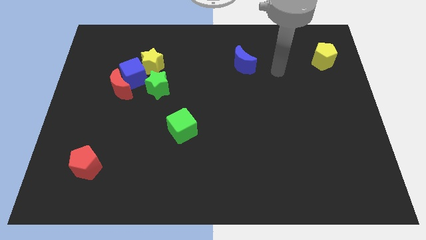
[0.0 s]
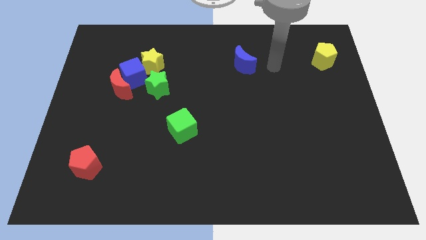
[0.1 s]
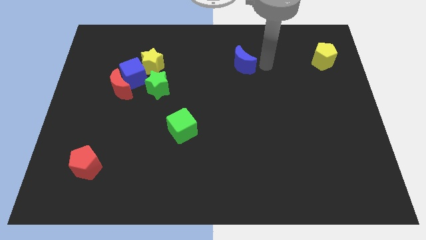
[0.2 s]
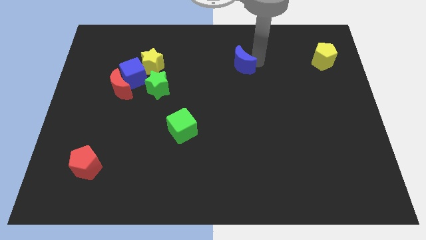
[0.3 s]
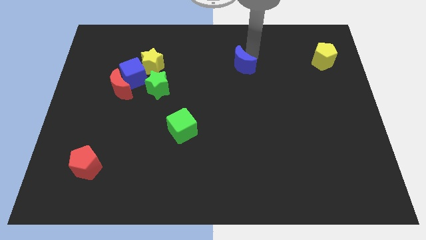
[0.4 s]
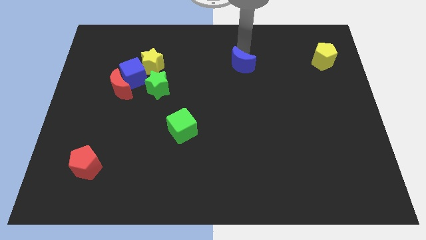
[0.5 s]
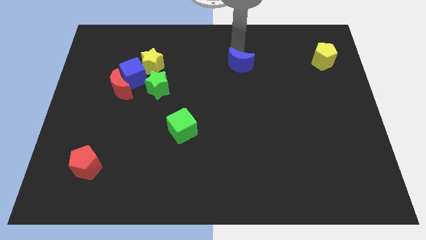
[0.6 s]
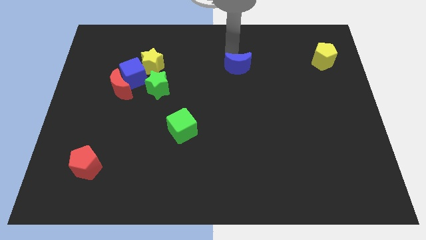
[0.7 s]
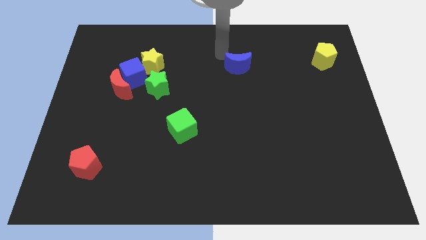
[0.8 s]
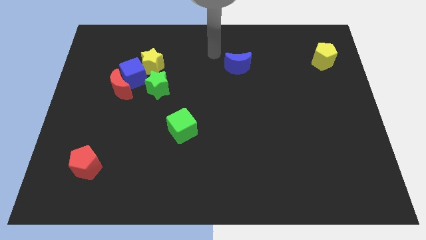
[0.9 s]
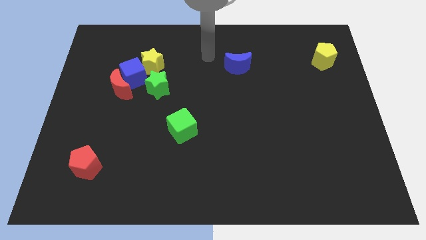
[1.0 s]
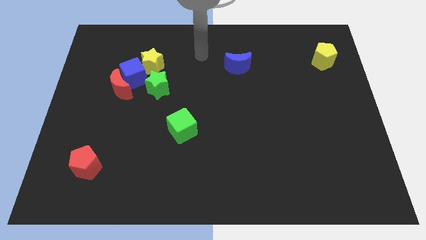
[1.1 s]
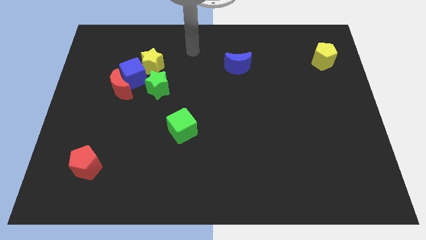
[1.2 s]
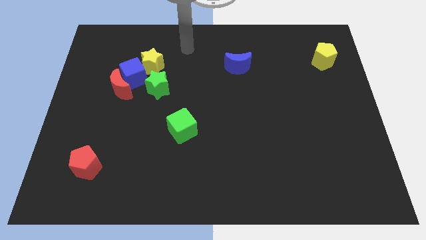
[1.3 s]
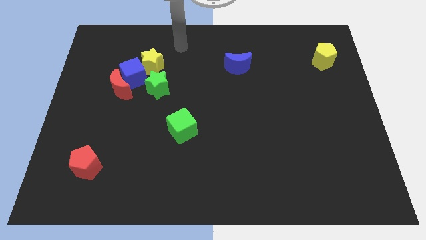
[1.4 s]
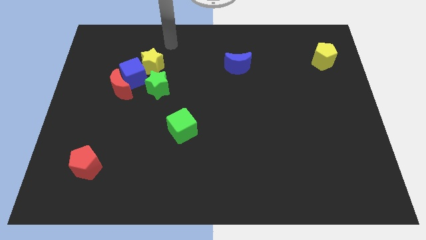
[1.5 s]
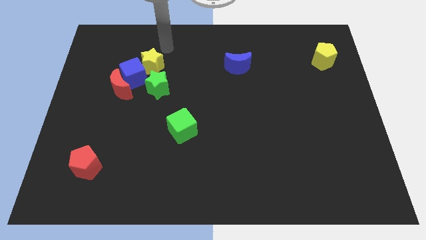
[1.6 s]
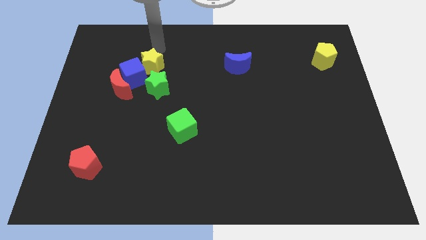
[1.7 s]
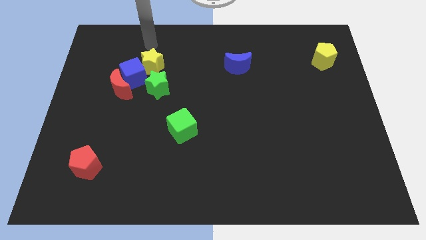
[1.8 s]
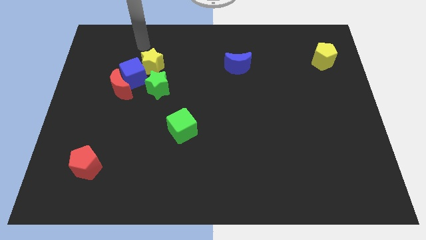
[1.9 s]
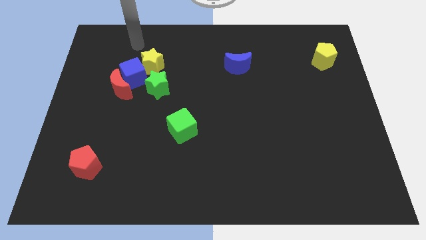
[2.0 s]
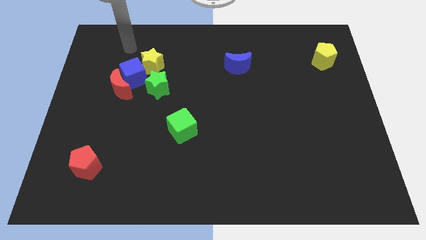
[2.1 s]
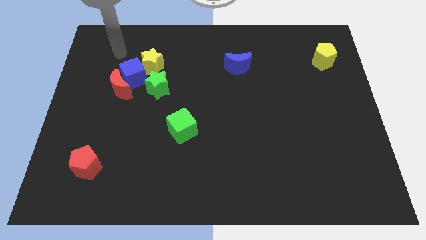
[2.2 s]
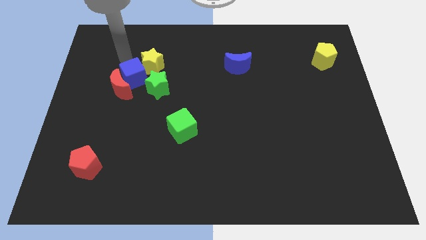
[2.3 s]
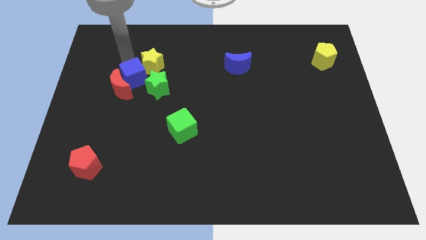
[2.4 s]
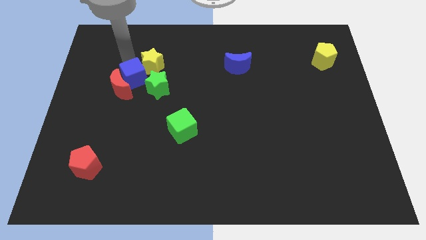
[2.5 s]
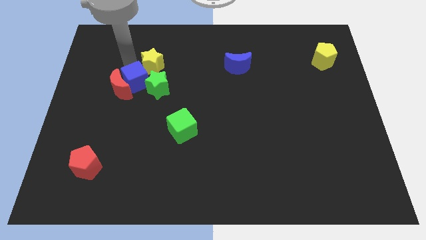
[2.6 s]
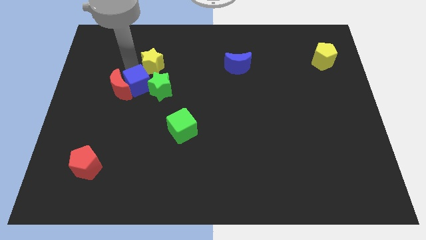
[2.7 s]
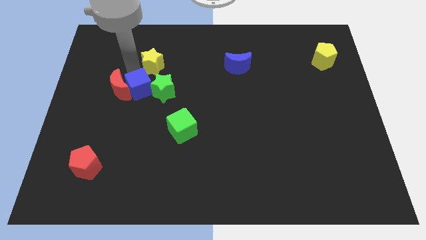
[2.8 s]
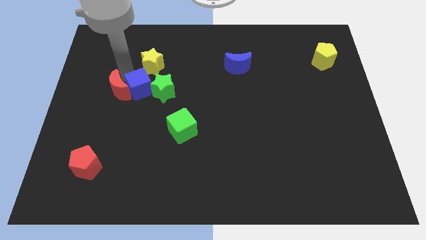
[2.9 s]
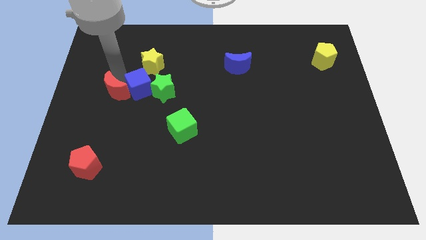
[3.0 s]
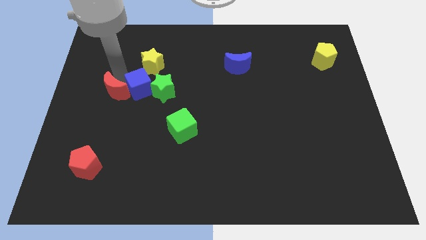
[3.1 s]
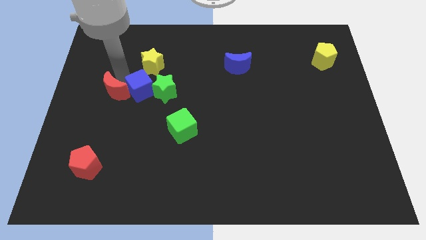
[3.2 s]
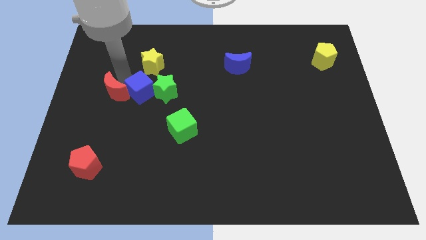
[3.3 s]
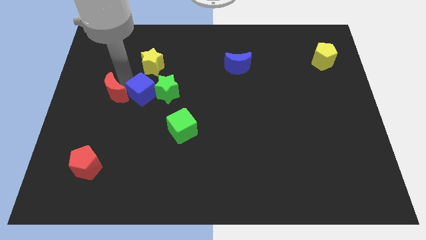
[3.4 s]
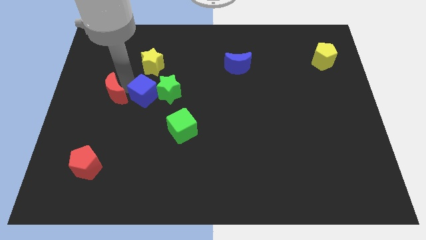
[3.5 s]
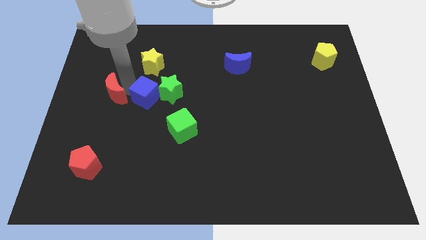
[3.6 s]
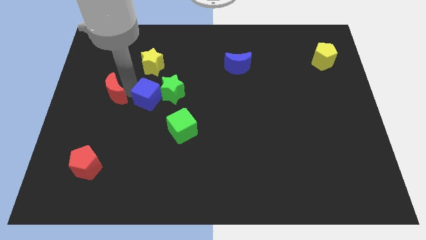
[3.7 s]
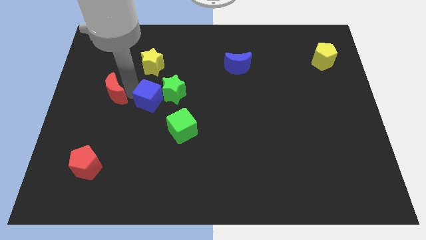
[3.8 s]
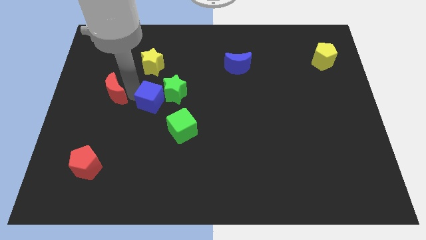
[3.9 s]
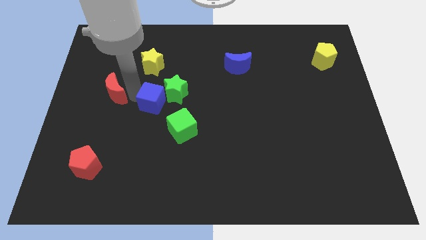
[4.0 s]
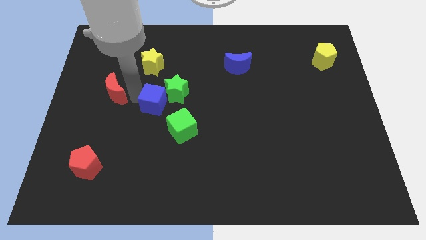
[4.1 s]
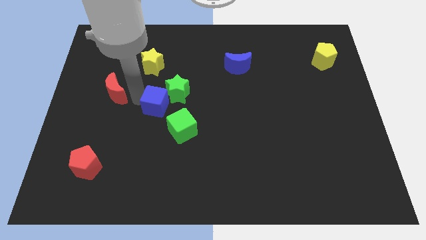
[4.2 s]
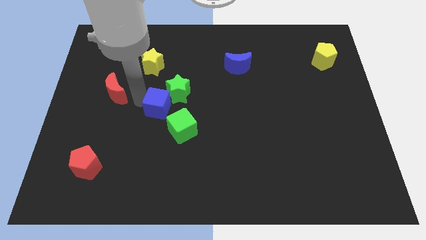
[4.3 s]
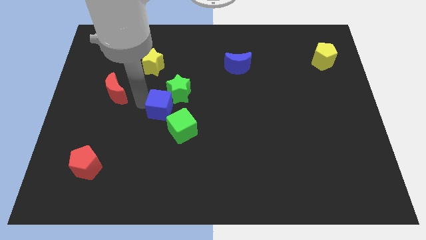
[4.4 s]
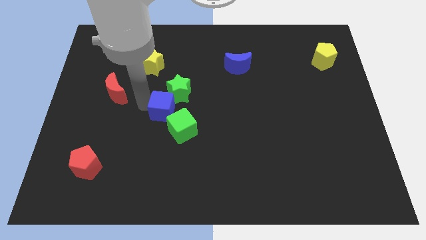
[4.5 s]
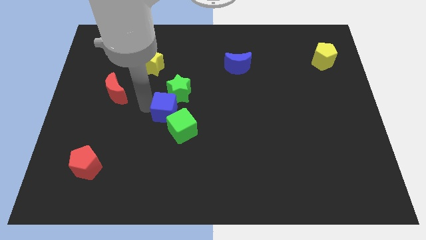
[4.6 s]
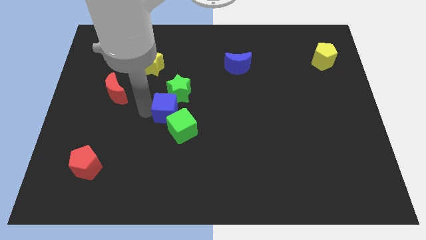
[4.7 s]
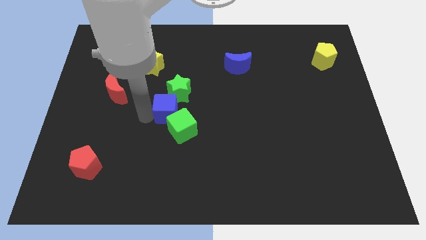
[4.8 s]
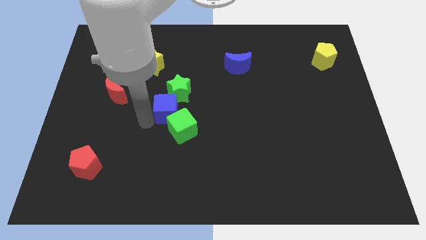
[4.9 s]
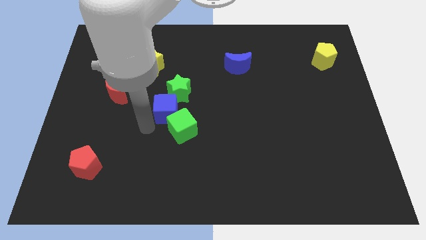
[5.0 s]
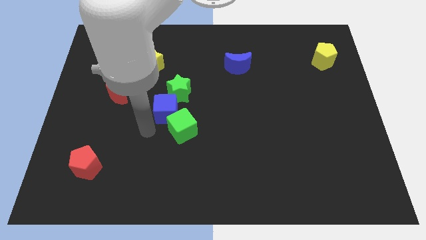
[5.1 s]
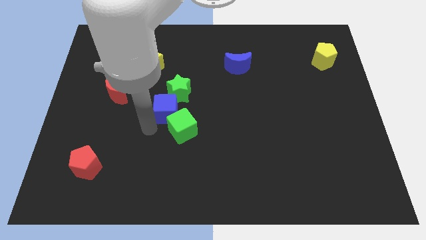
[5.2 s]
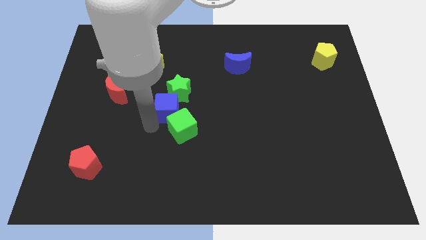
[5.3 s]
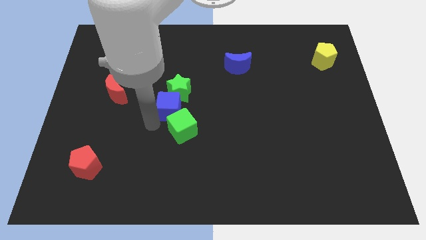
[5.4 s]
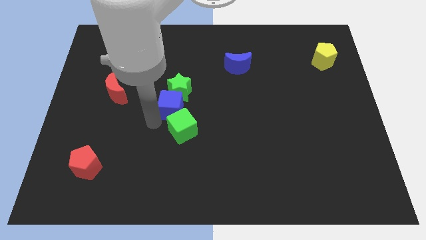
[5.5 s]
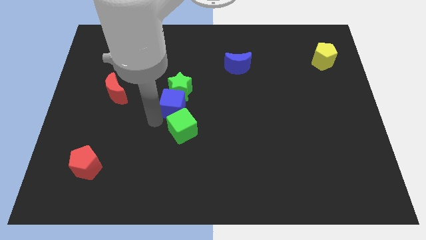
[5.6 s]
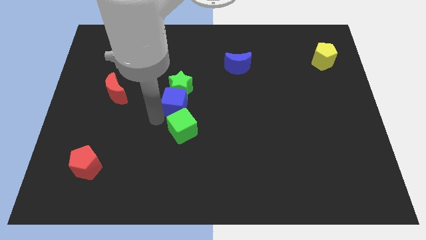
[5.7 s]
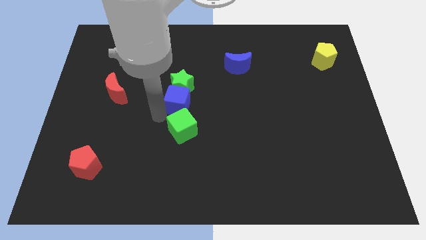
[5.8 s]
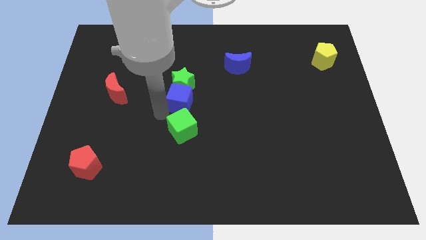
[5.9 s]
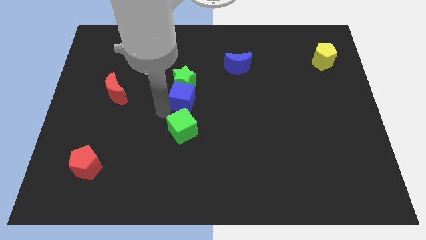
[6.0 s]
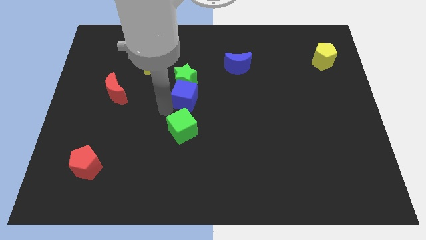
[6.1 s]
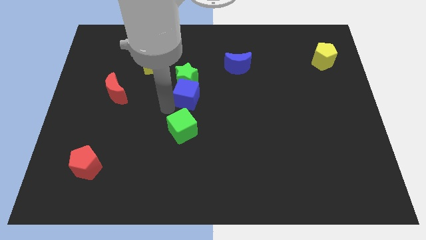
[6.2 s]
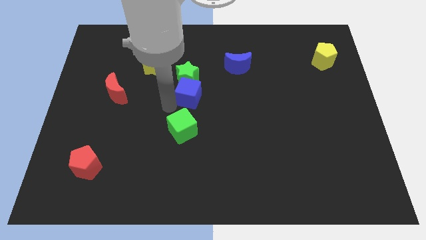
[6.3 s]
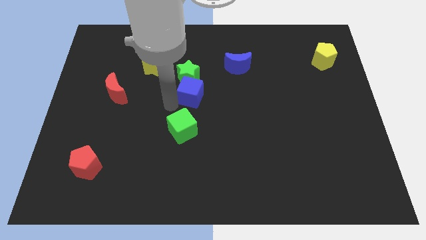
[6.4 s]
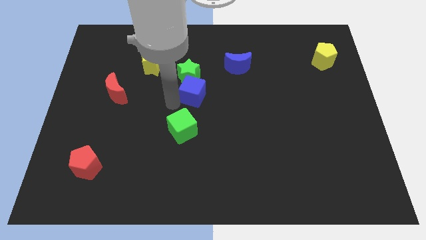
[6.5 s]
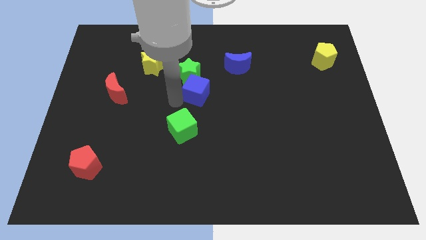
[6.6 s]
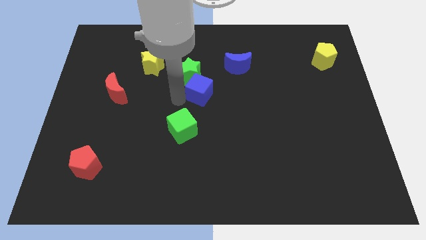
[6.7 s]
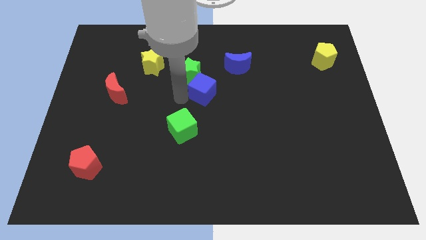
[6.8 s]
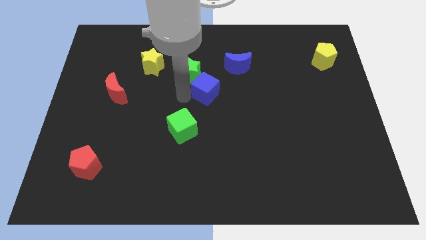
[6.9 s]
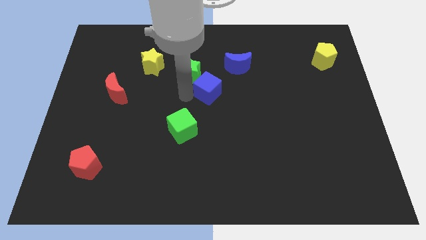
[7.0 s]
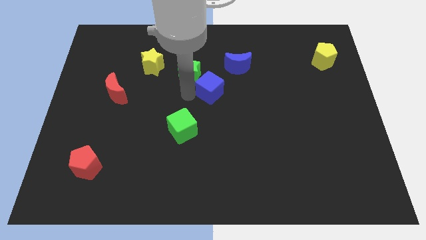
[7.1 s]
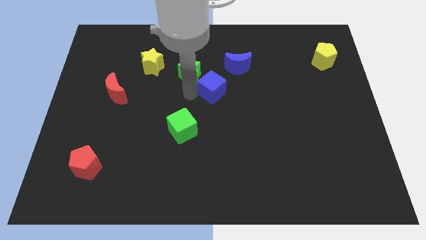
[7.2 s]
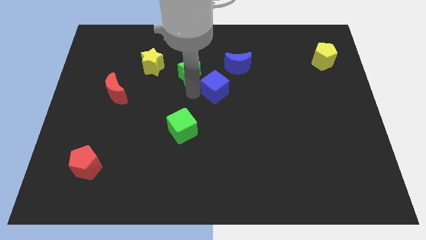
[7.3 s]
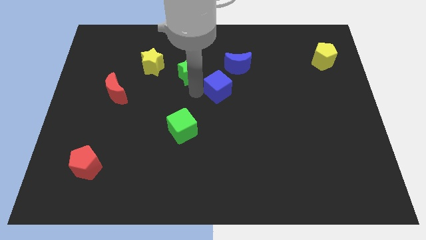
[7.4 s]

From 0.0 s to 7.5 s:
move the blue cube right

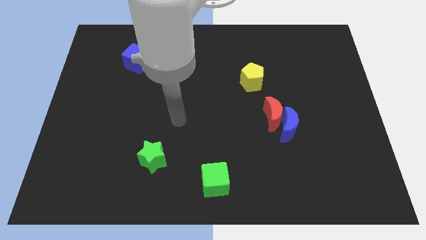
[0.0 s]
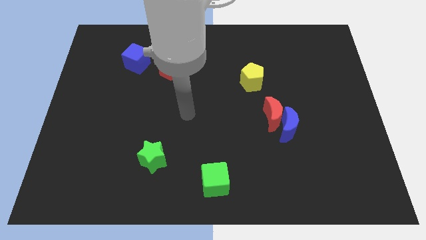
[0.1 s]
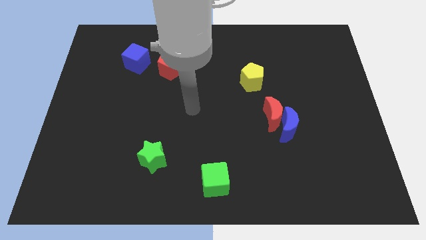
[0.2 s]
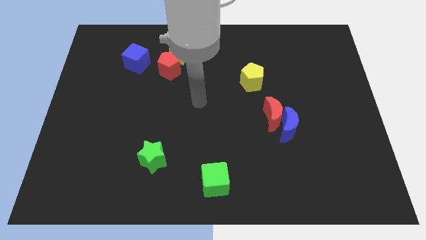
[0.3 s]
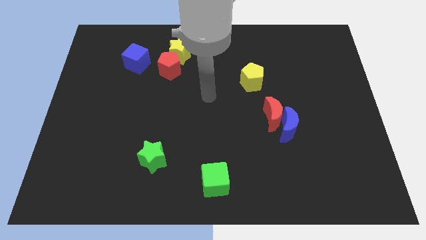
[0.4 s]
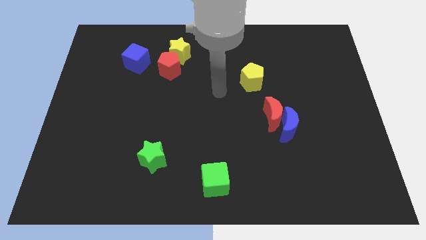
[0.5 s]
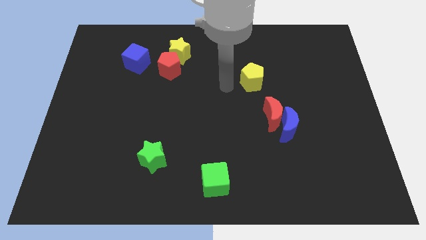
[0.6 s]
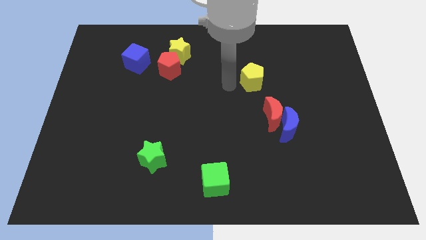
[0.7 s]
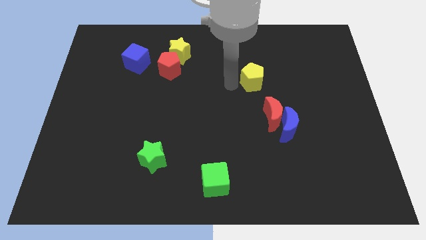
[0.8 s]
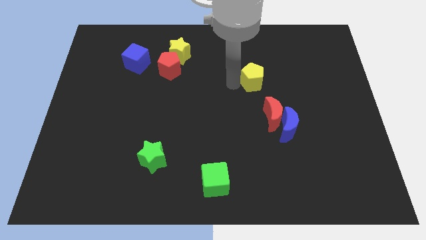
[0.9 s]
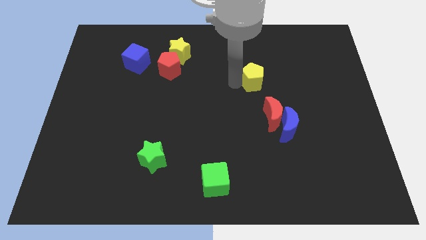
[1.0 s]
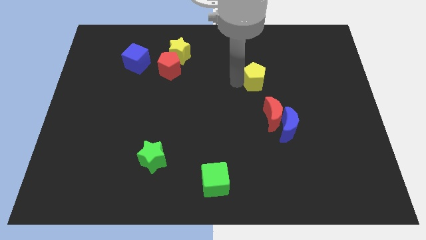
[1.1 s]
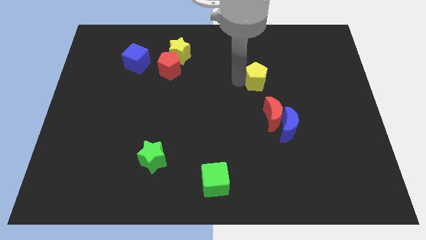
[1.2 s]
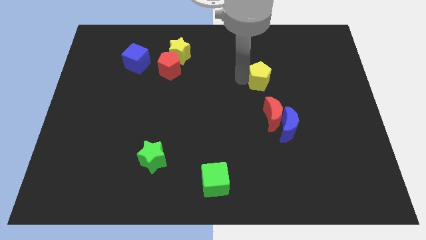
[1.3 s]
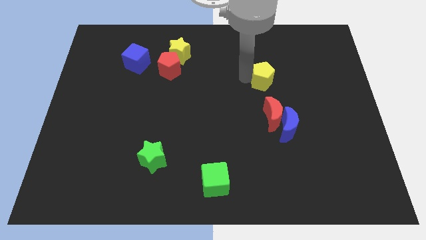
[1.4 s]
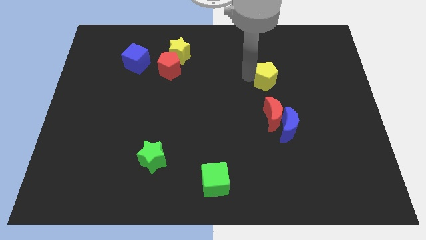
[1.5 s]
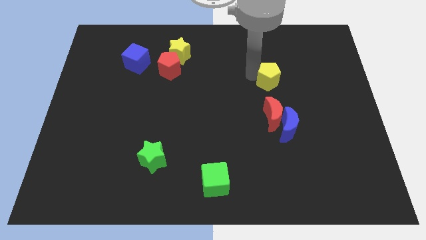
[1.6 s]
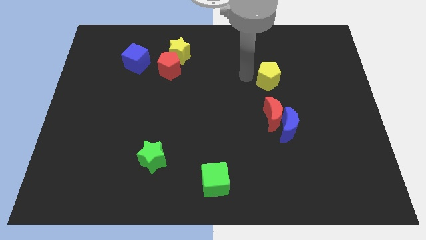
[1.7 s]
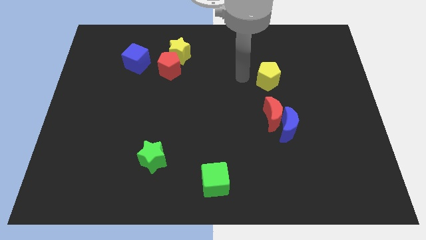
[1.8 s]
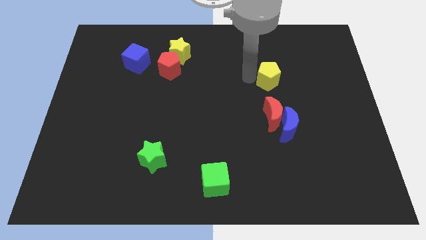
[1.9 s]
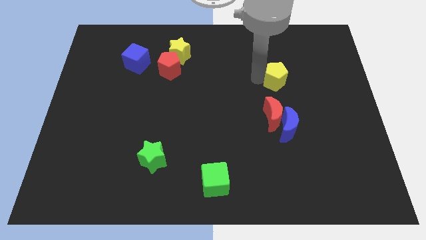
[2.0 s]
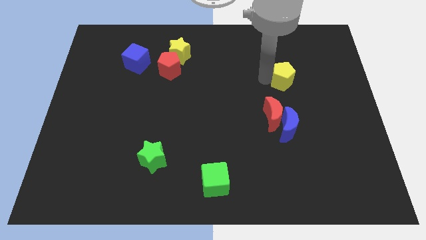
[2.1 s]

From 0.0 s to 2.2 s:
move the yellow pentagon slightly to the right
